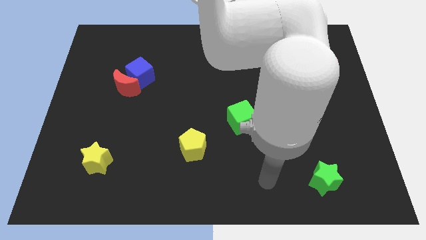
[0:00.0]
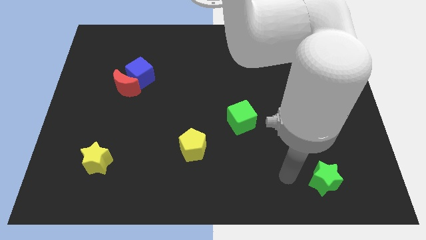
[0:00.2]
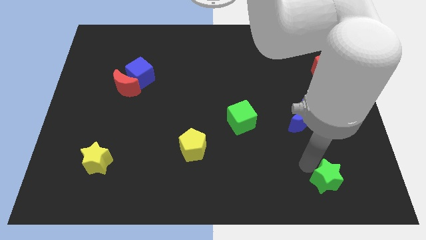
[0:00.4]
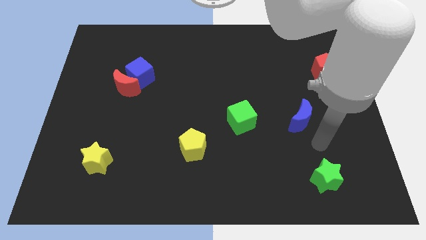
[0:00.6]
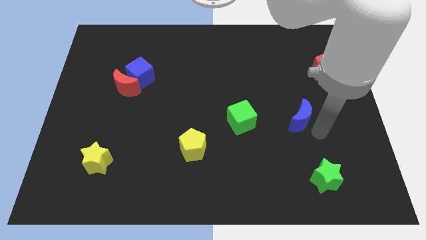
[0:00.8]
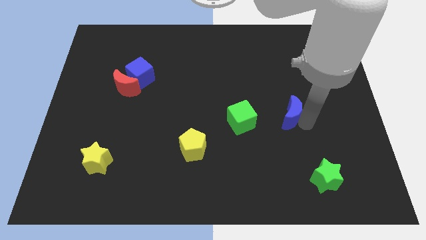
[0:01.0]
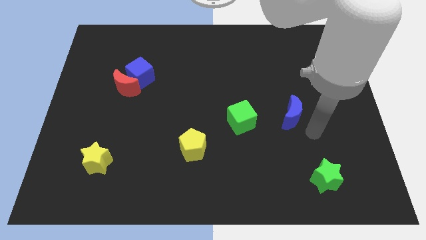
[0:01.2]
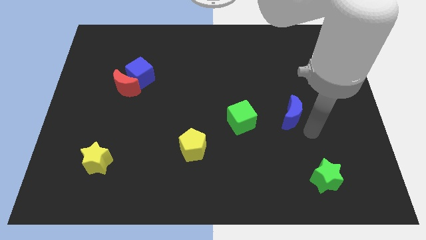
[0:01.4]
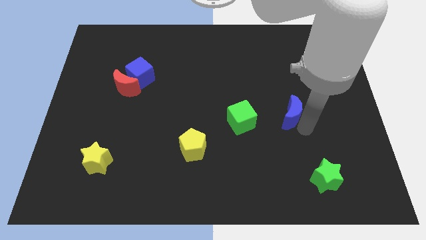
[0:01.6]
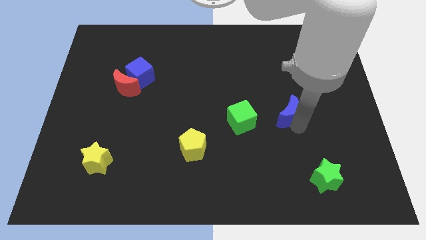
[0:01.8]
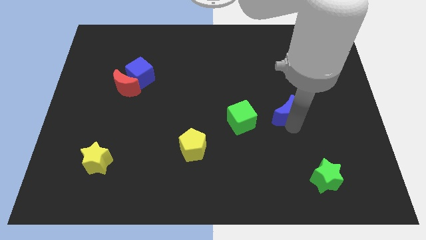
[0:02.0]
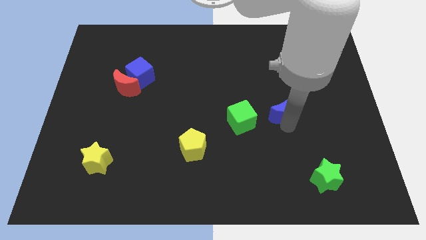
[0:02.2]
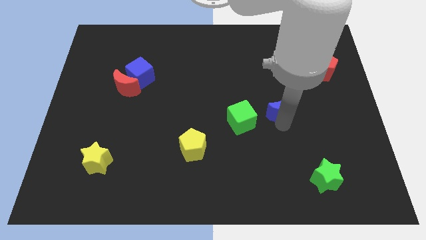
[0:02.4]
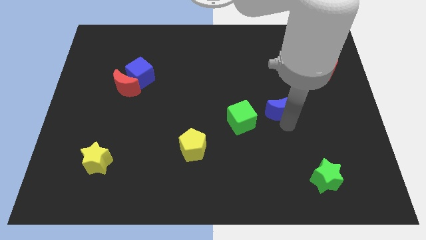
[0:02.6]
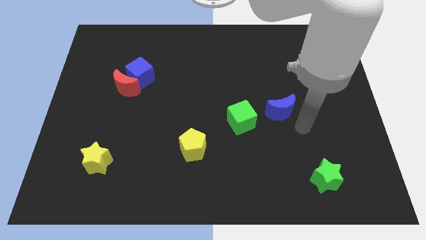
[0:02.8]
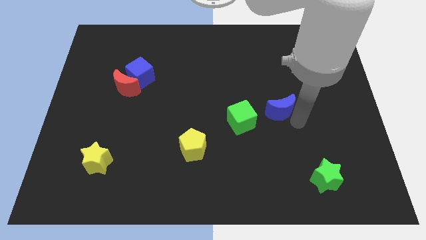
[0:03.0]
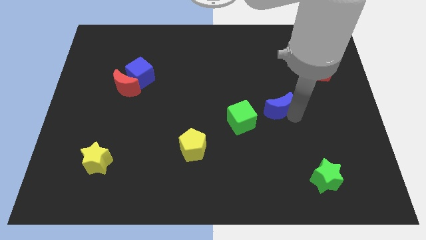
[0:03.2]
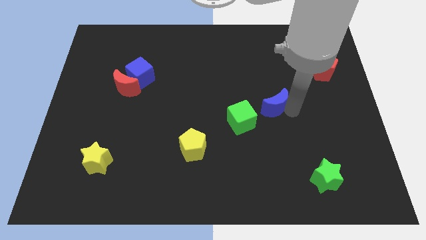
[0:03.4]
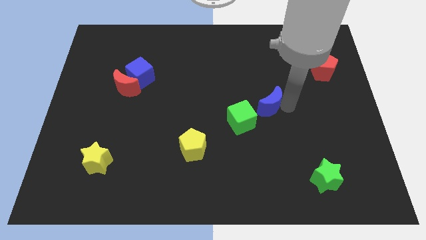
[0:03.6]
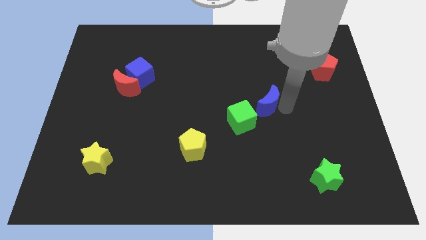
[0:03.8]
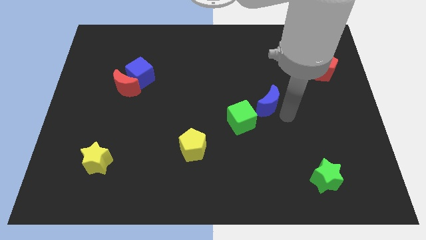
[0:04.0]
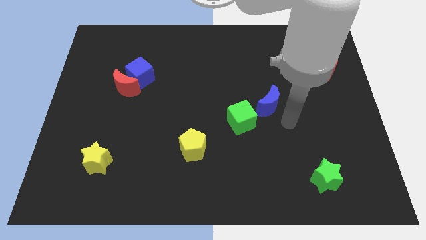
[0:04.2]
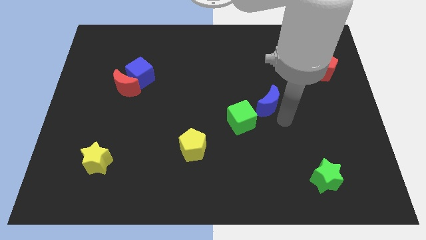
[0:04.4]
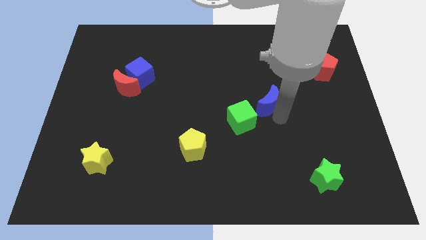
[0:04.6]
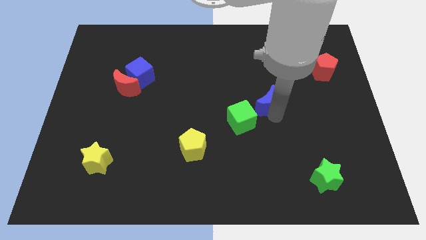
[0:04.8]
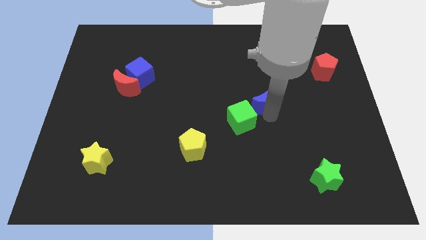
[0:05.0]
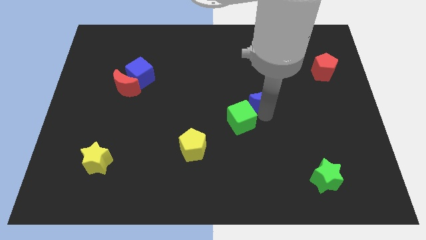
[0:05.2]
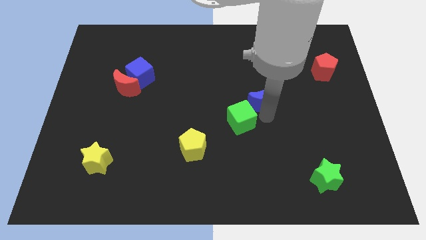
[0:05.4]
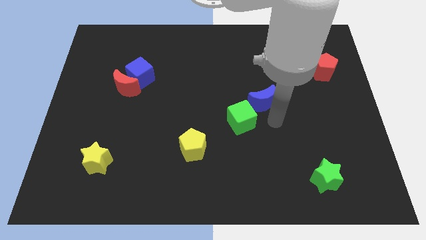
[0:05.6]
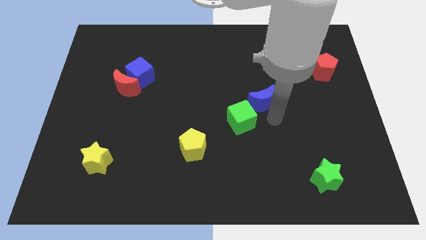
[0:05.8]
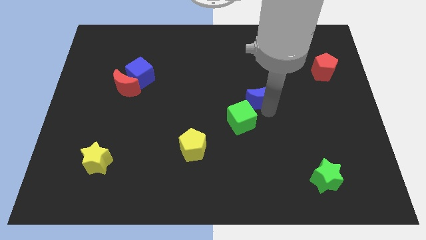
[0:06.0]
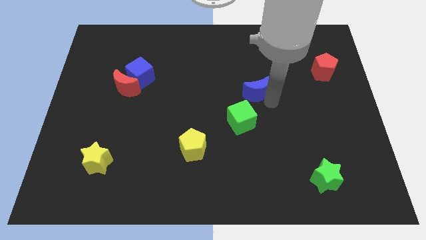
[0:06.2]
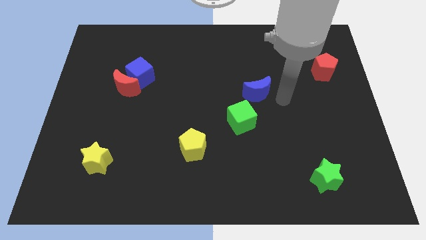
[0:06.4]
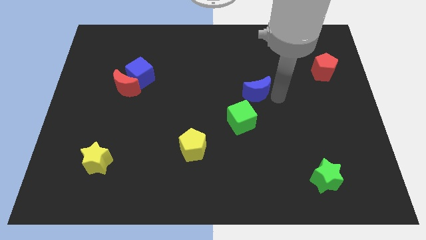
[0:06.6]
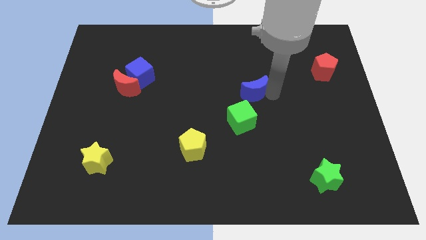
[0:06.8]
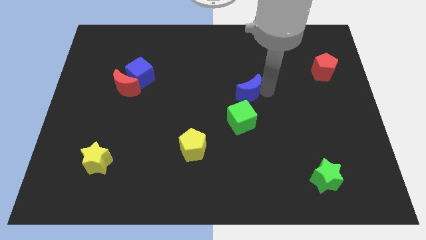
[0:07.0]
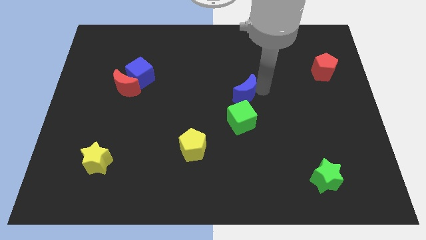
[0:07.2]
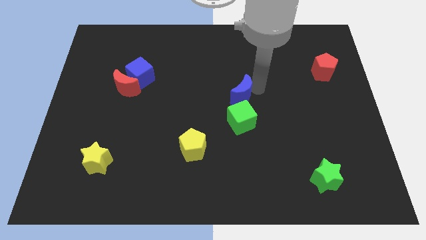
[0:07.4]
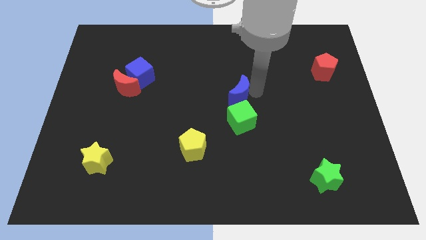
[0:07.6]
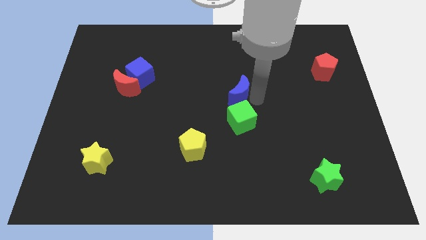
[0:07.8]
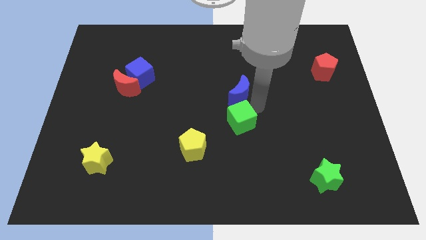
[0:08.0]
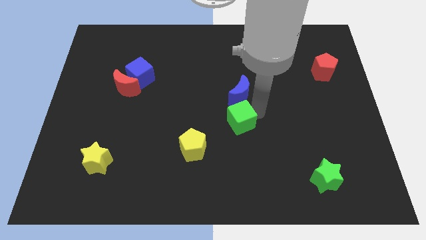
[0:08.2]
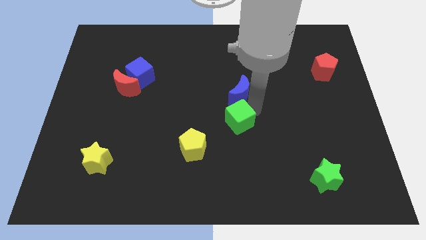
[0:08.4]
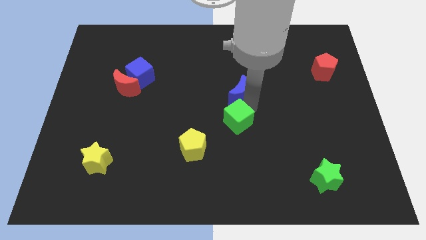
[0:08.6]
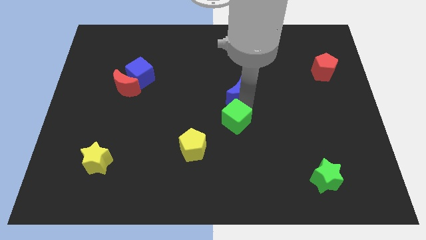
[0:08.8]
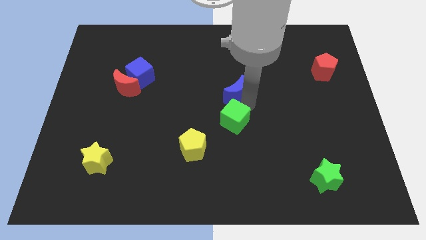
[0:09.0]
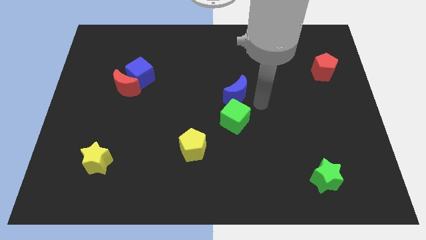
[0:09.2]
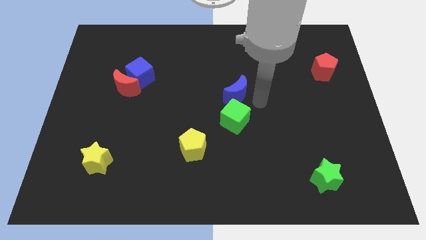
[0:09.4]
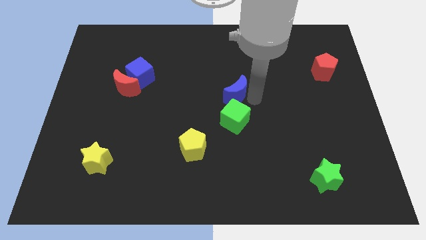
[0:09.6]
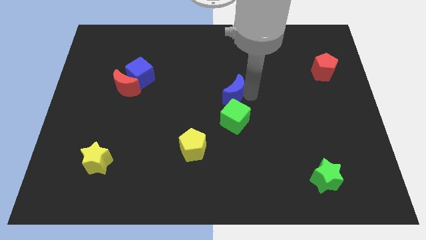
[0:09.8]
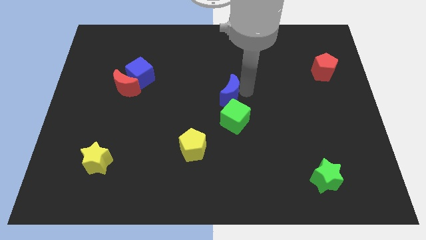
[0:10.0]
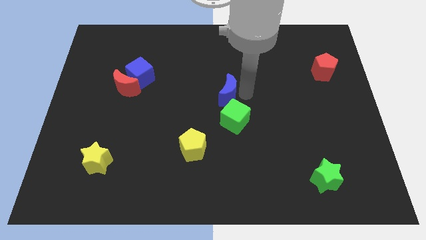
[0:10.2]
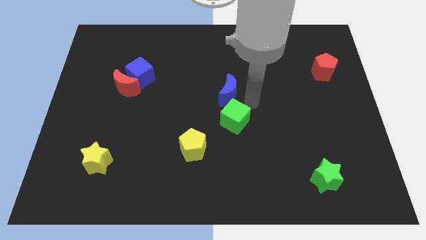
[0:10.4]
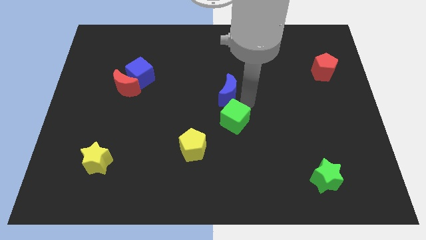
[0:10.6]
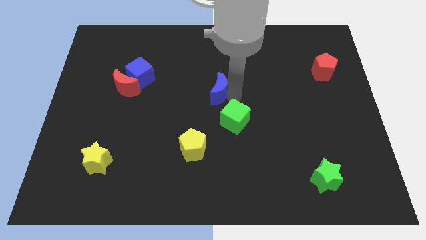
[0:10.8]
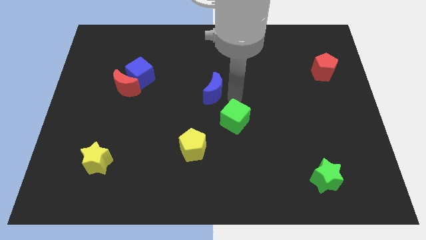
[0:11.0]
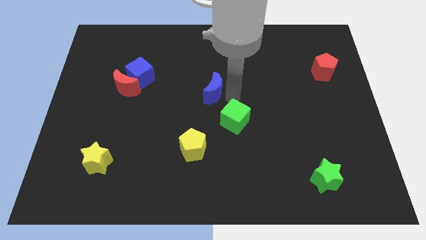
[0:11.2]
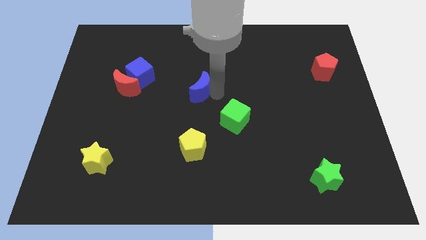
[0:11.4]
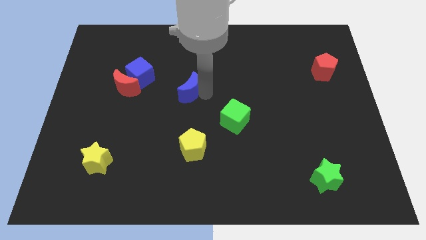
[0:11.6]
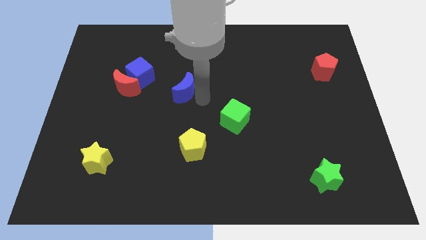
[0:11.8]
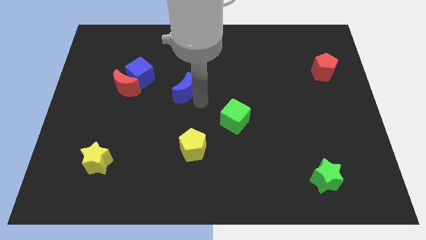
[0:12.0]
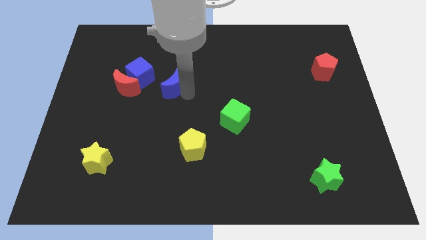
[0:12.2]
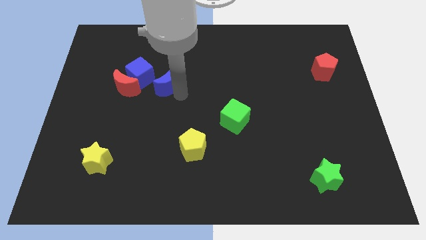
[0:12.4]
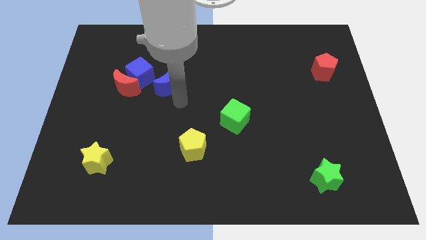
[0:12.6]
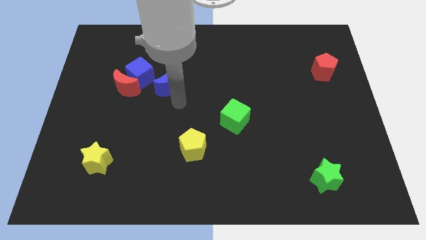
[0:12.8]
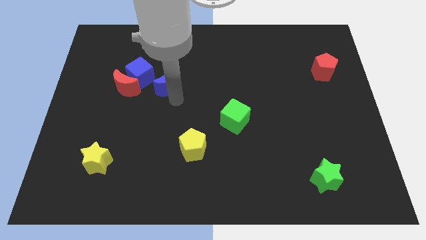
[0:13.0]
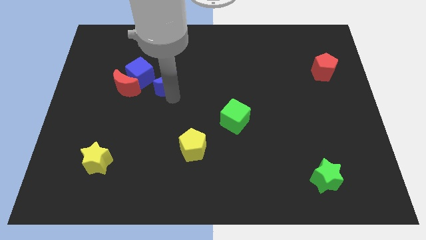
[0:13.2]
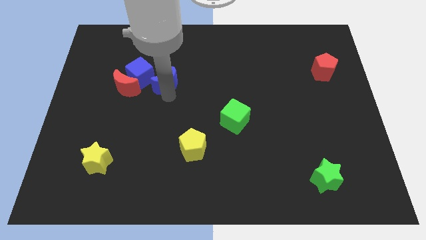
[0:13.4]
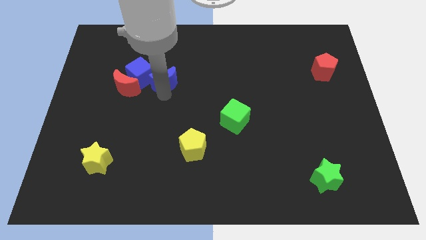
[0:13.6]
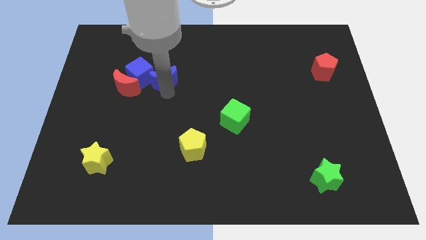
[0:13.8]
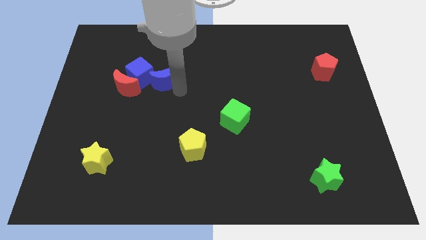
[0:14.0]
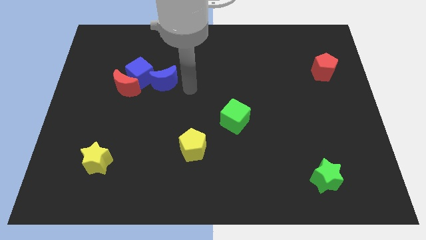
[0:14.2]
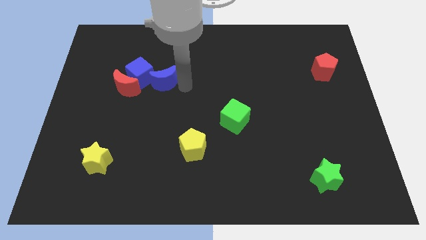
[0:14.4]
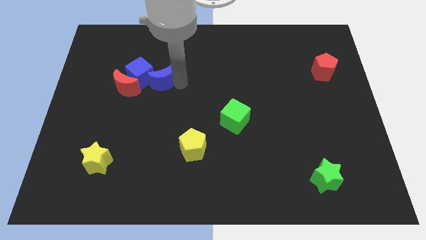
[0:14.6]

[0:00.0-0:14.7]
push the blue moon next to the blue cube
